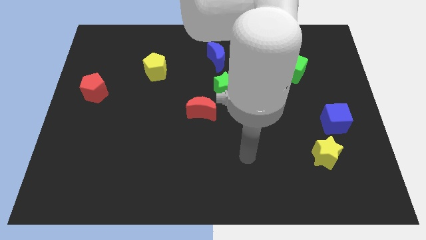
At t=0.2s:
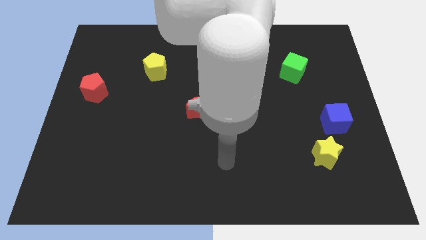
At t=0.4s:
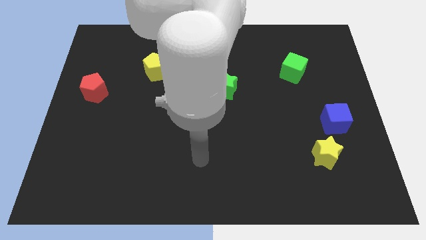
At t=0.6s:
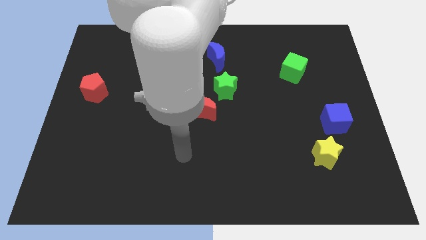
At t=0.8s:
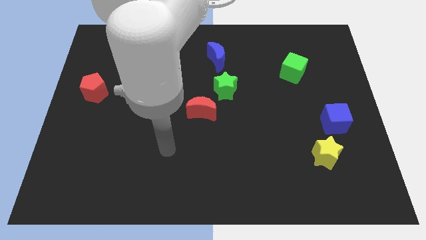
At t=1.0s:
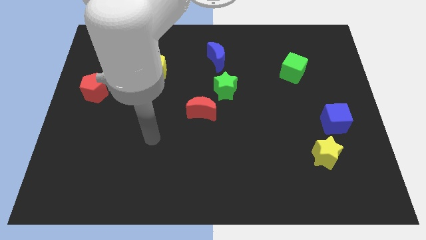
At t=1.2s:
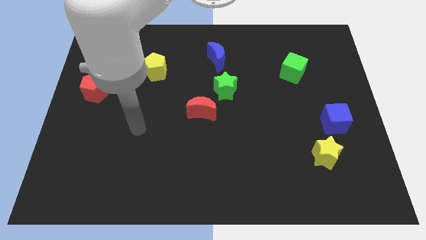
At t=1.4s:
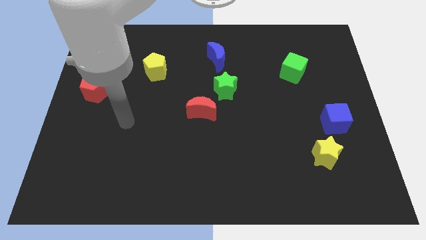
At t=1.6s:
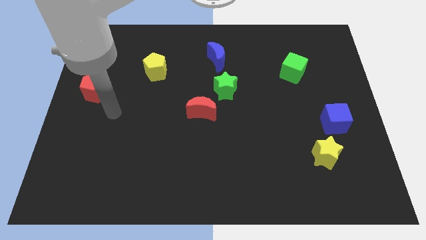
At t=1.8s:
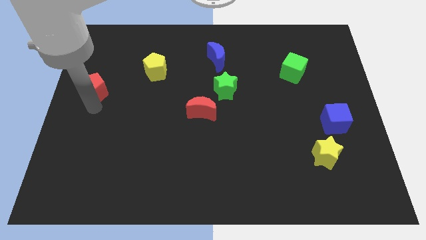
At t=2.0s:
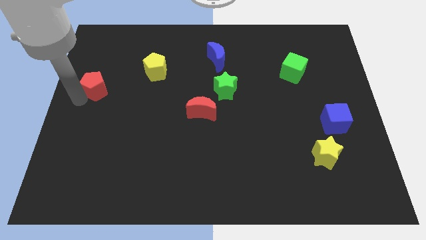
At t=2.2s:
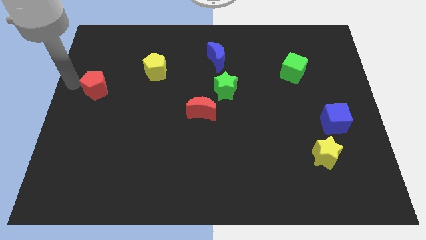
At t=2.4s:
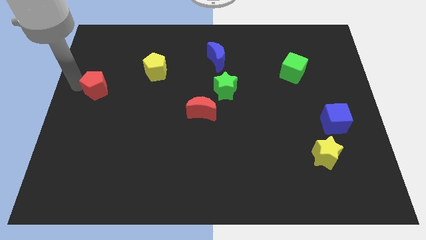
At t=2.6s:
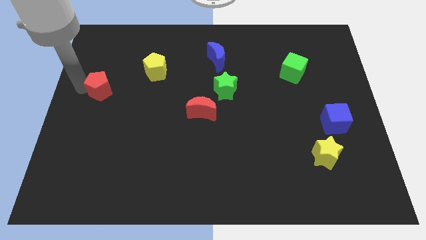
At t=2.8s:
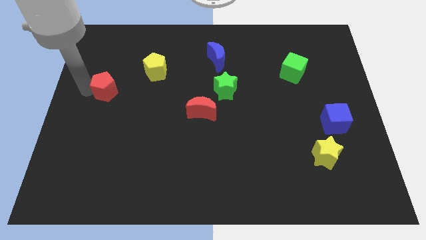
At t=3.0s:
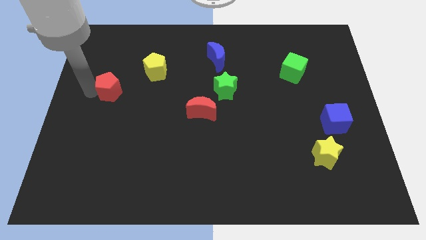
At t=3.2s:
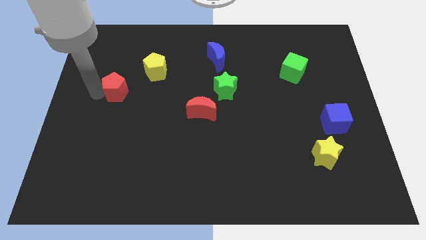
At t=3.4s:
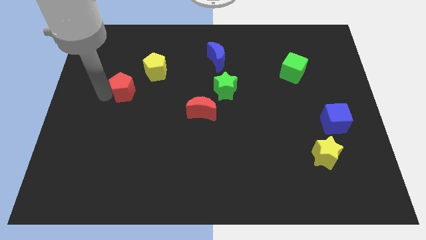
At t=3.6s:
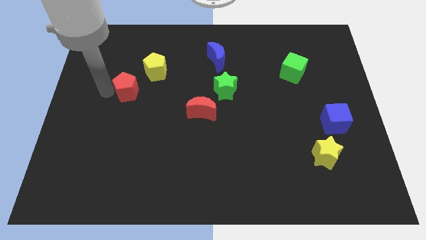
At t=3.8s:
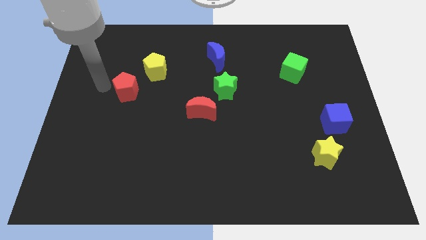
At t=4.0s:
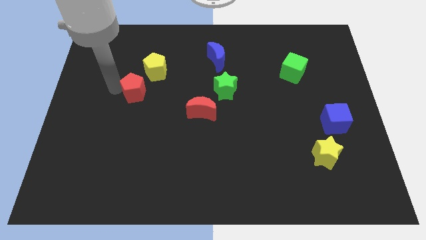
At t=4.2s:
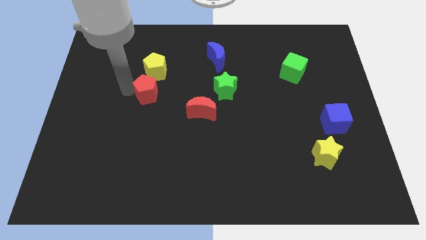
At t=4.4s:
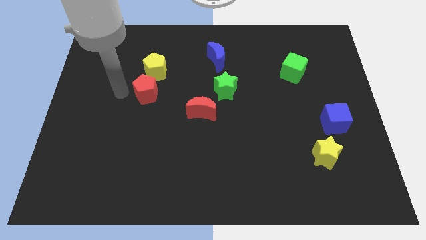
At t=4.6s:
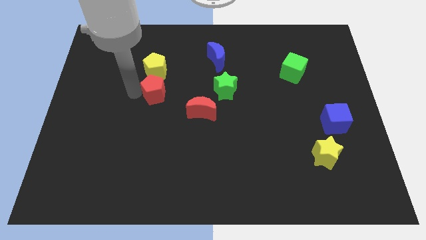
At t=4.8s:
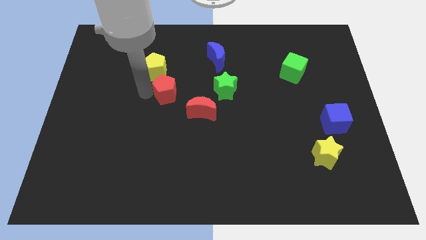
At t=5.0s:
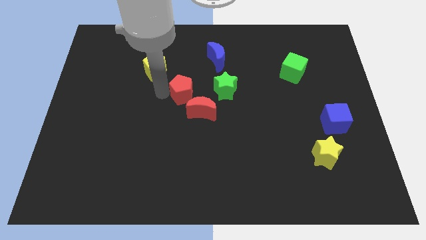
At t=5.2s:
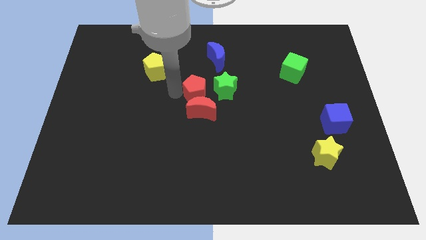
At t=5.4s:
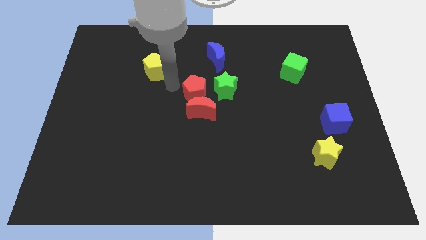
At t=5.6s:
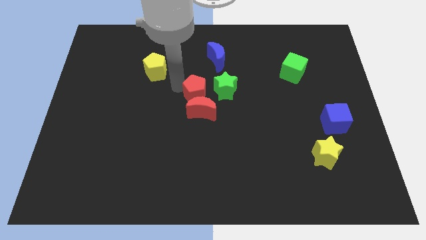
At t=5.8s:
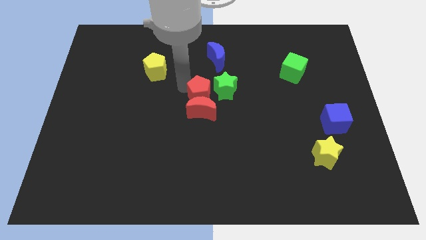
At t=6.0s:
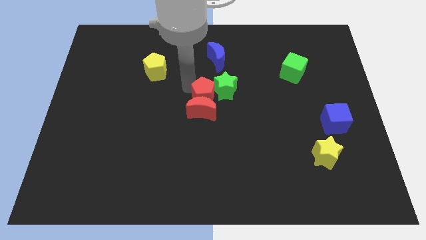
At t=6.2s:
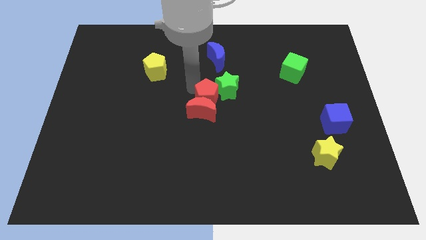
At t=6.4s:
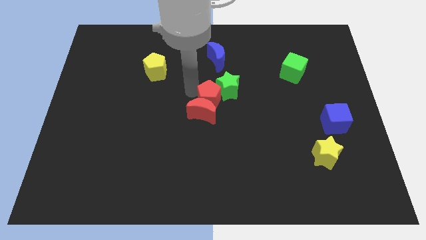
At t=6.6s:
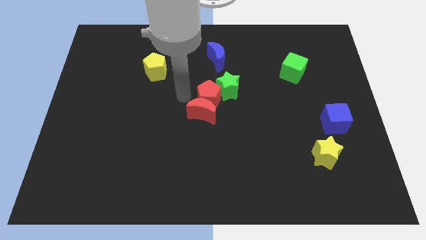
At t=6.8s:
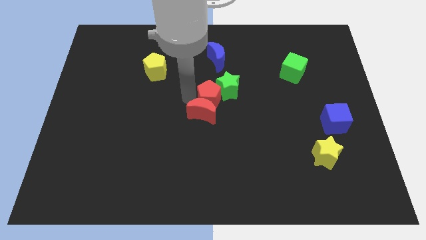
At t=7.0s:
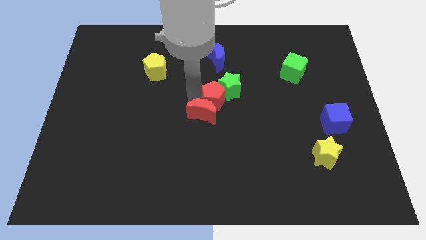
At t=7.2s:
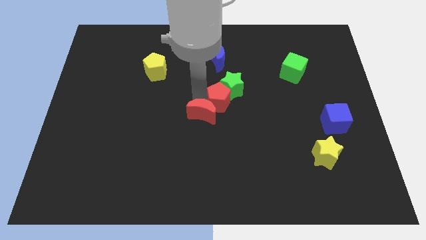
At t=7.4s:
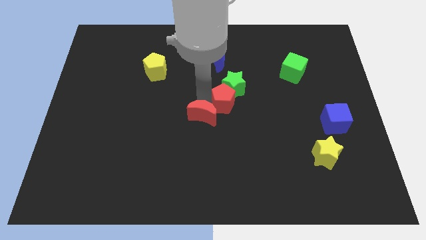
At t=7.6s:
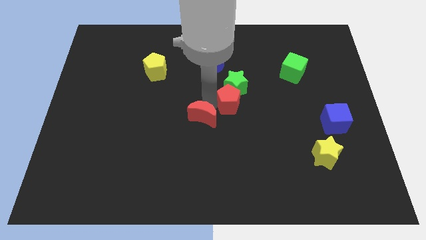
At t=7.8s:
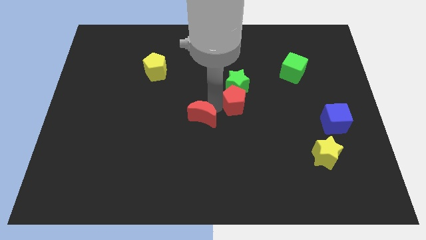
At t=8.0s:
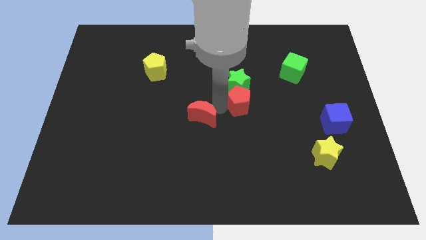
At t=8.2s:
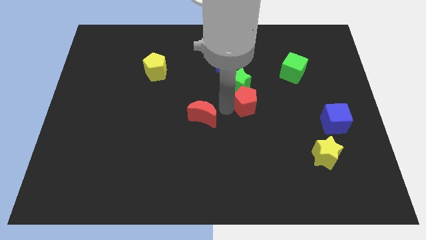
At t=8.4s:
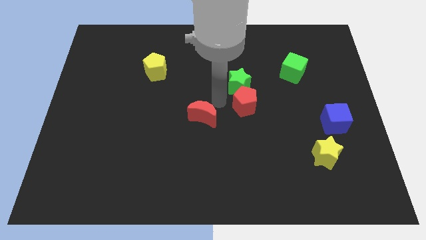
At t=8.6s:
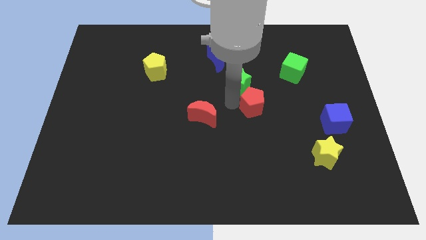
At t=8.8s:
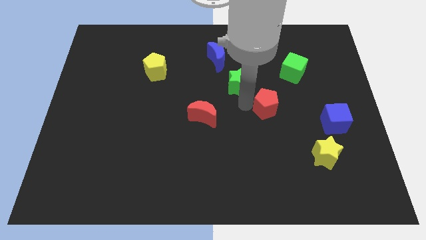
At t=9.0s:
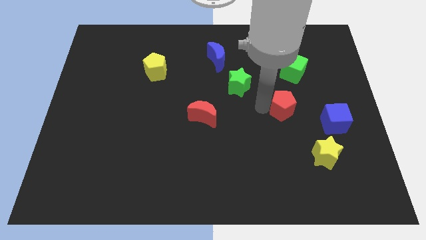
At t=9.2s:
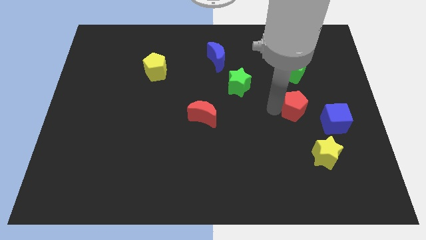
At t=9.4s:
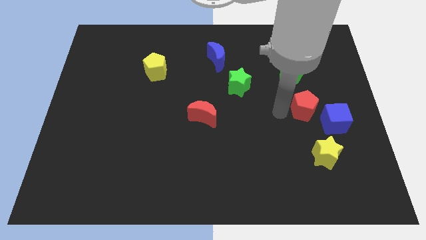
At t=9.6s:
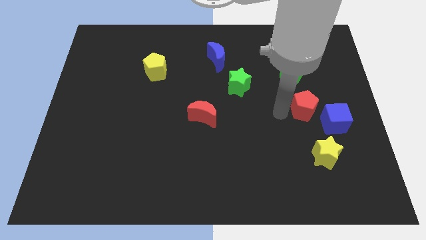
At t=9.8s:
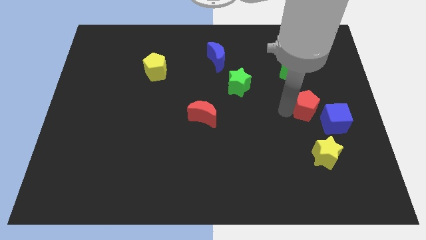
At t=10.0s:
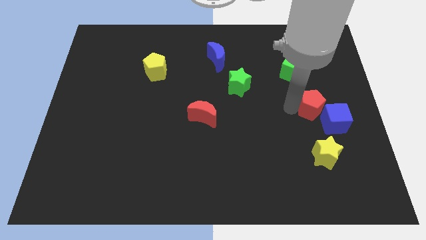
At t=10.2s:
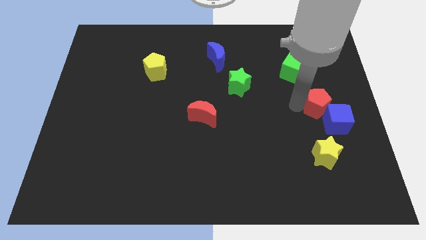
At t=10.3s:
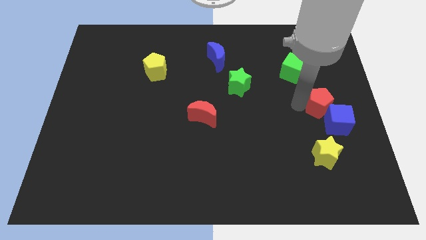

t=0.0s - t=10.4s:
put the red pentagon to the right side

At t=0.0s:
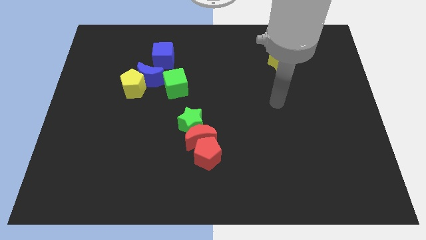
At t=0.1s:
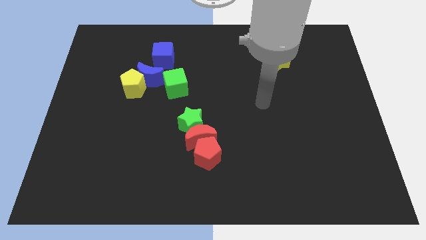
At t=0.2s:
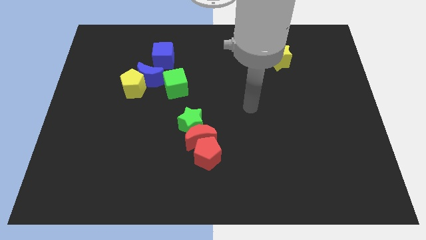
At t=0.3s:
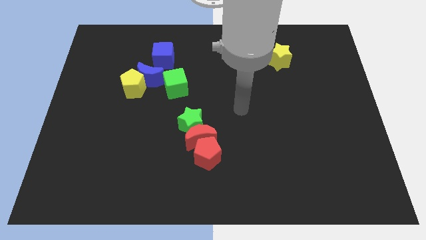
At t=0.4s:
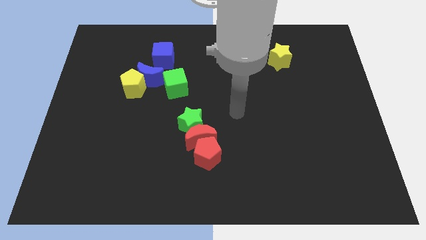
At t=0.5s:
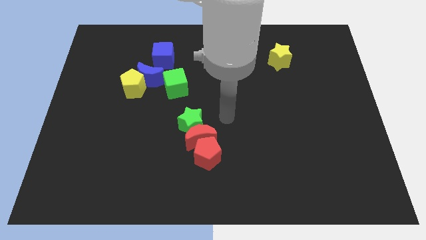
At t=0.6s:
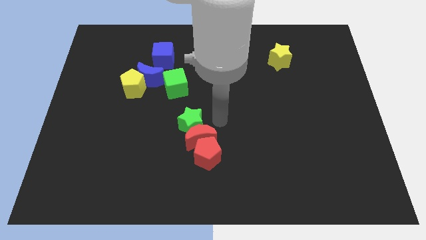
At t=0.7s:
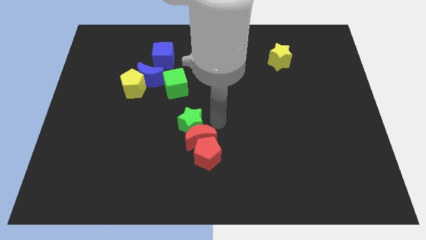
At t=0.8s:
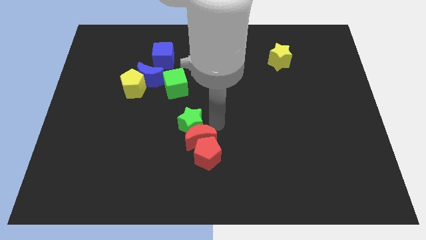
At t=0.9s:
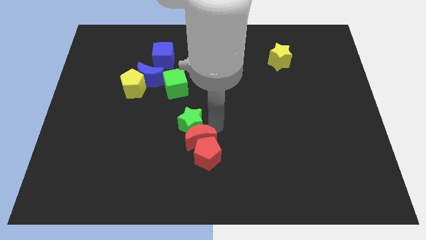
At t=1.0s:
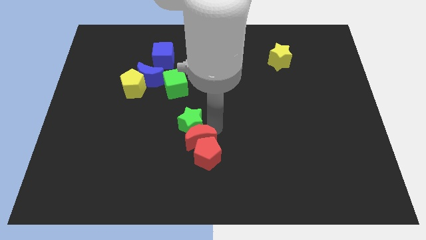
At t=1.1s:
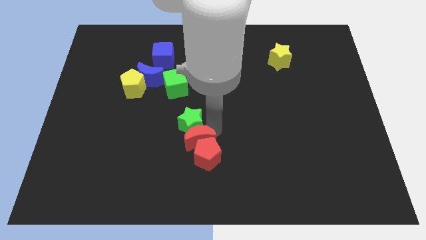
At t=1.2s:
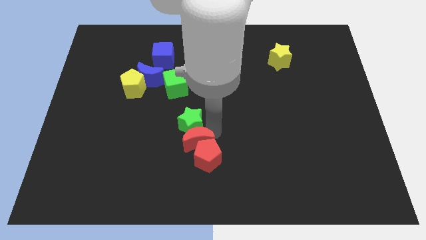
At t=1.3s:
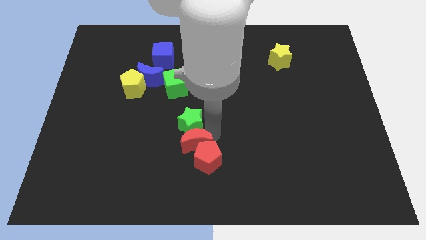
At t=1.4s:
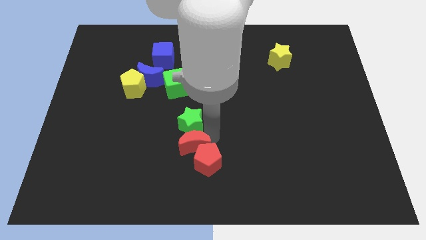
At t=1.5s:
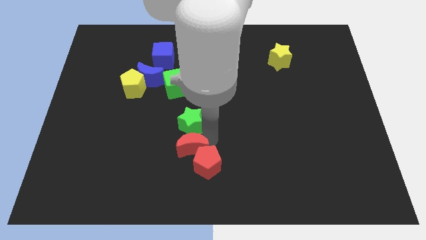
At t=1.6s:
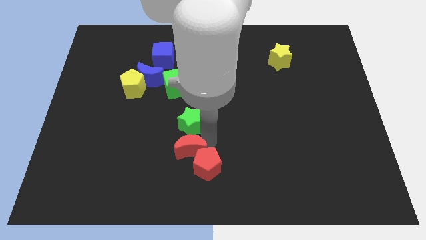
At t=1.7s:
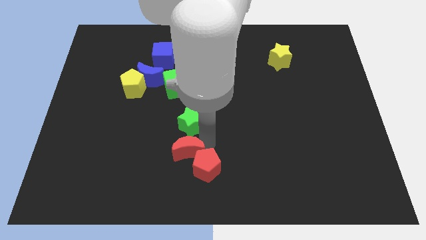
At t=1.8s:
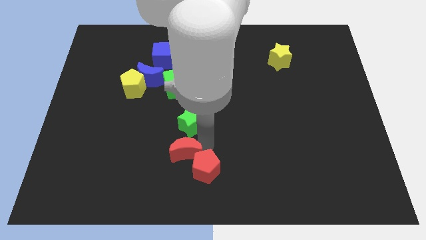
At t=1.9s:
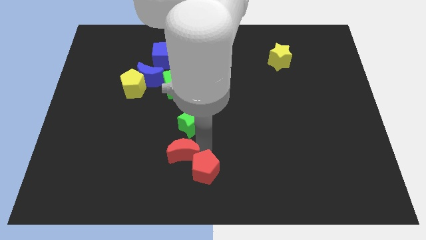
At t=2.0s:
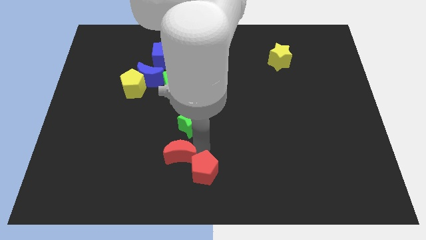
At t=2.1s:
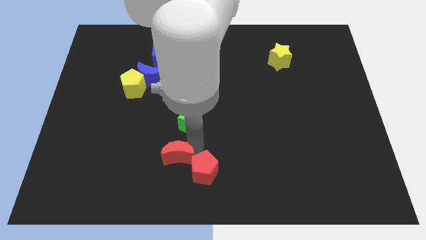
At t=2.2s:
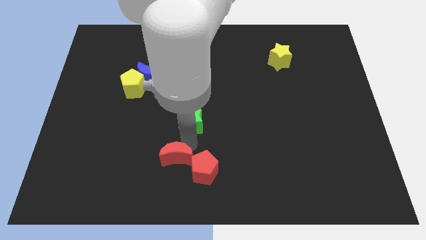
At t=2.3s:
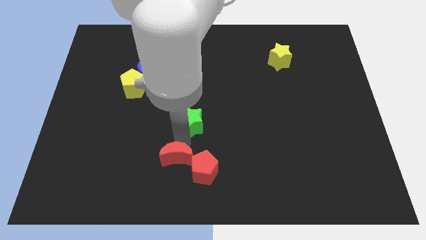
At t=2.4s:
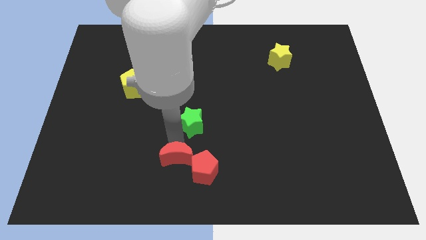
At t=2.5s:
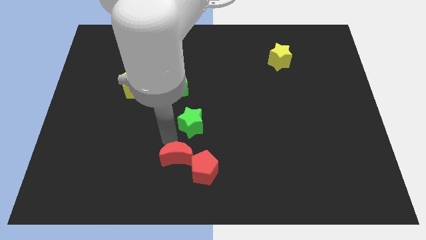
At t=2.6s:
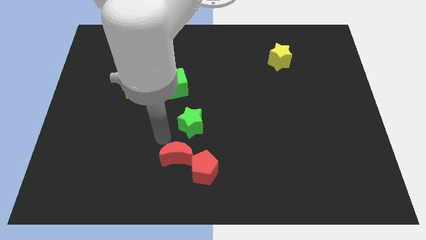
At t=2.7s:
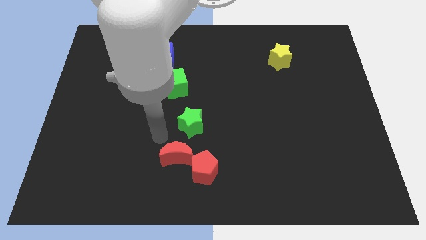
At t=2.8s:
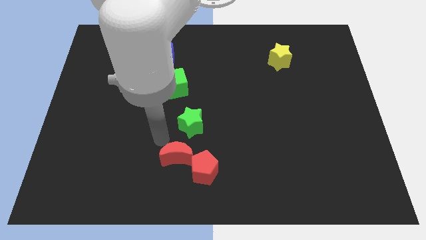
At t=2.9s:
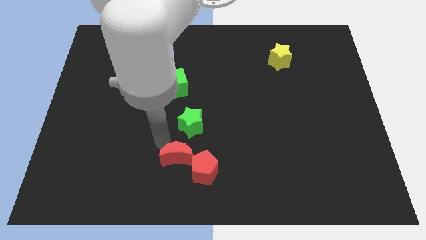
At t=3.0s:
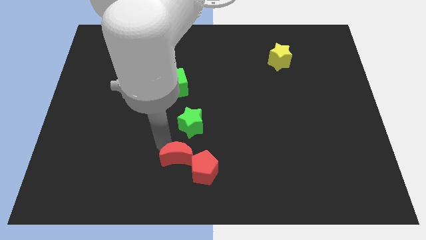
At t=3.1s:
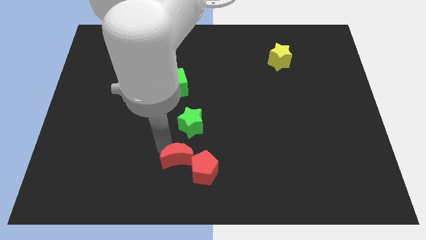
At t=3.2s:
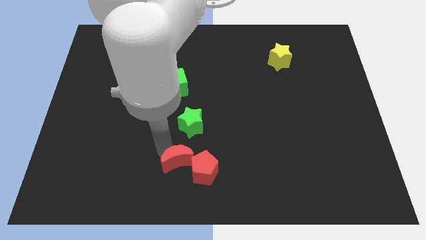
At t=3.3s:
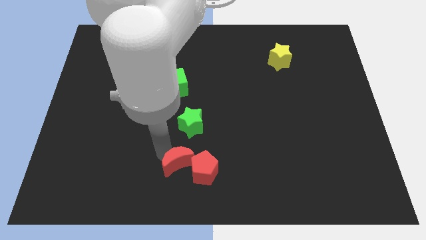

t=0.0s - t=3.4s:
move the red moon to the bottom
